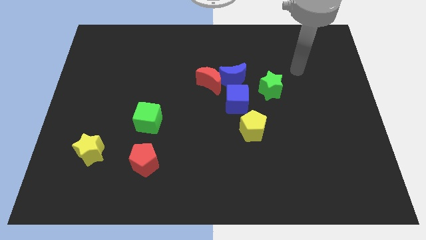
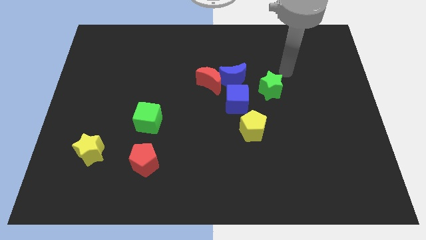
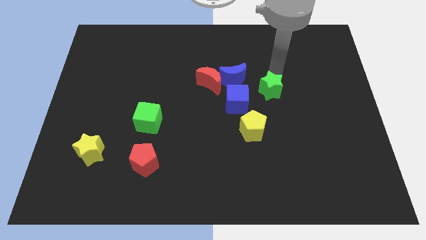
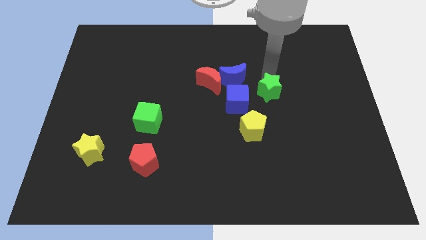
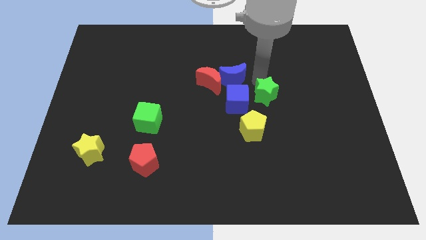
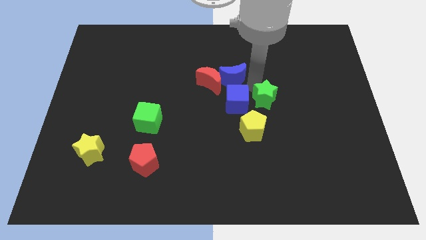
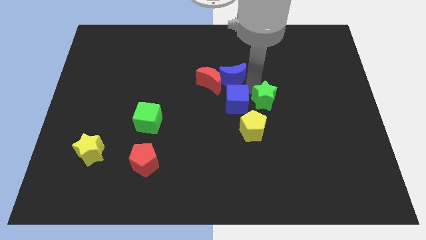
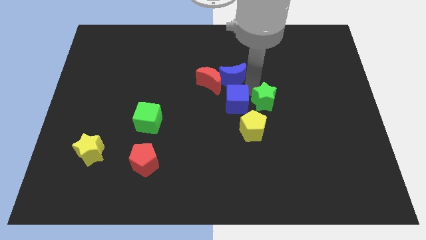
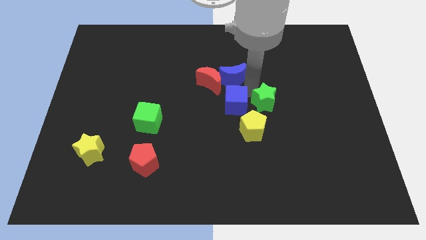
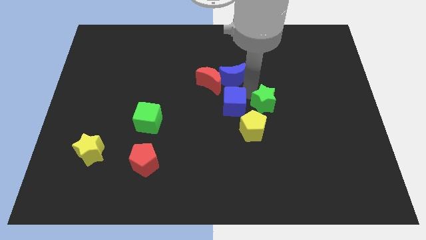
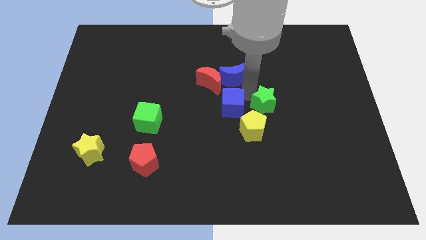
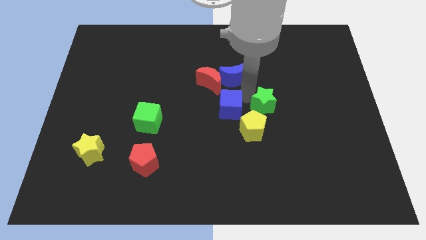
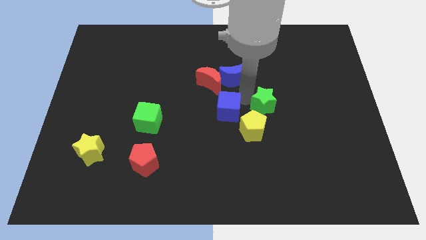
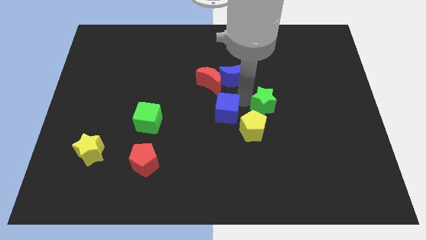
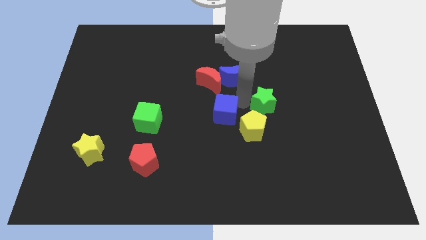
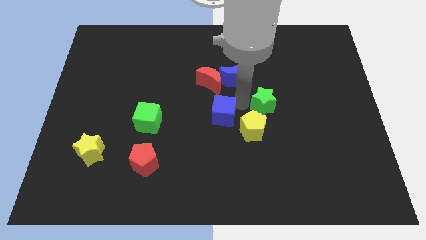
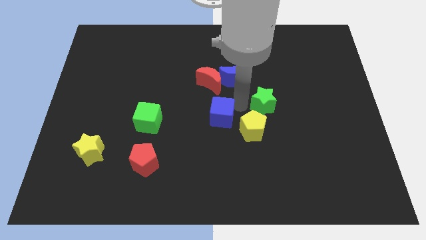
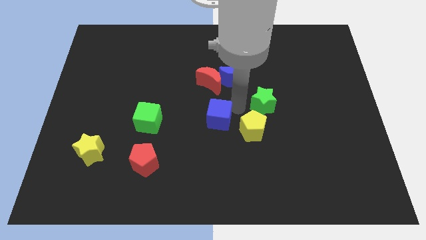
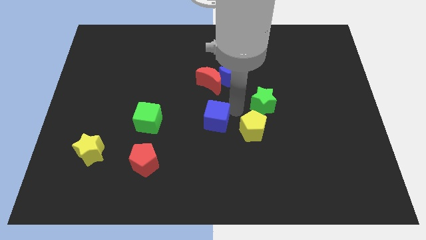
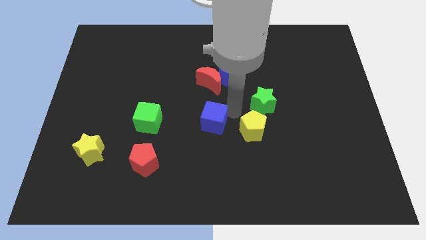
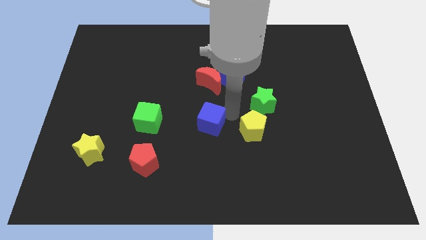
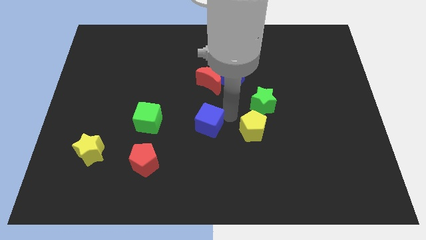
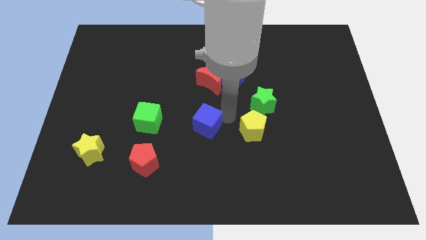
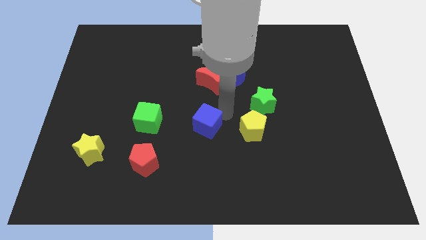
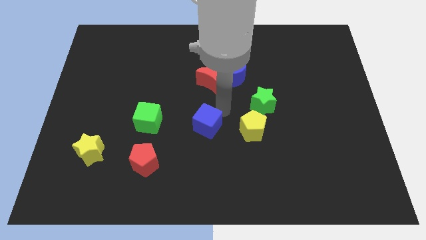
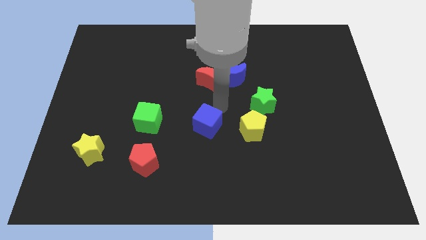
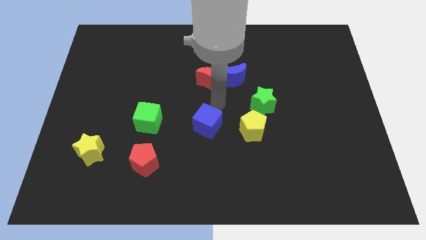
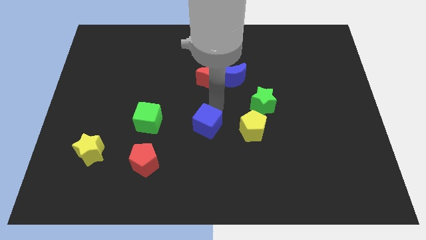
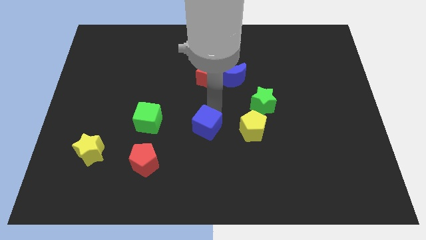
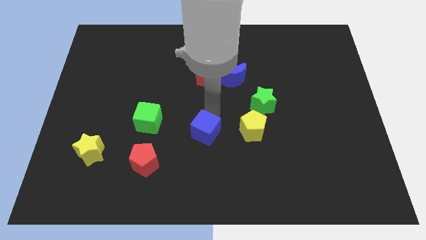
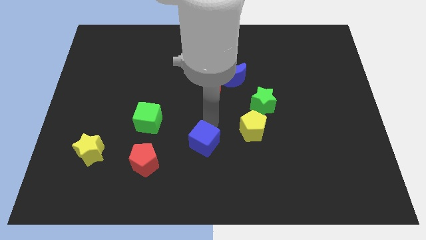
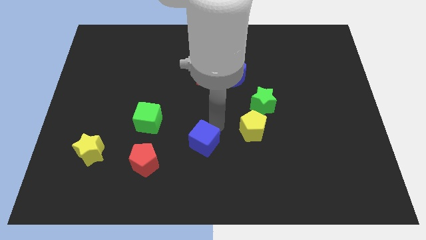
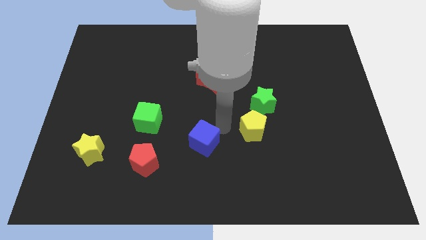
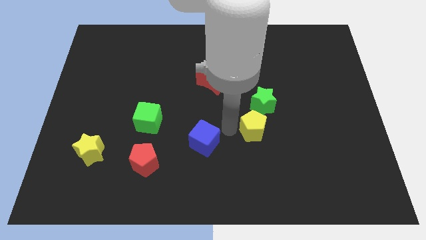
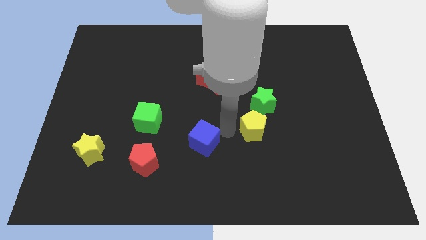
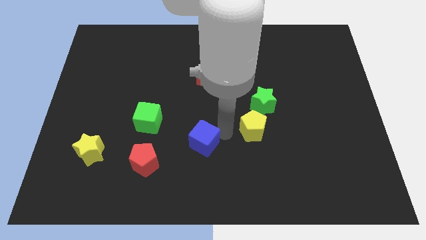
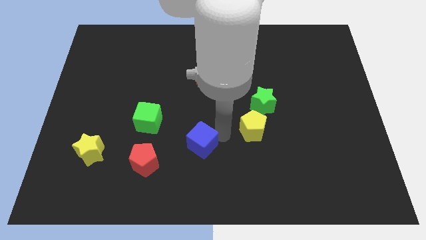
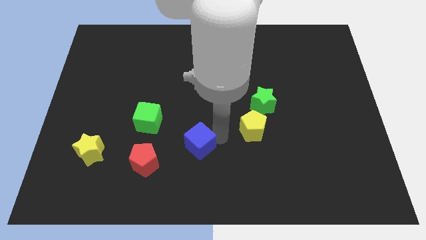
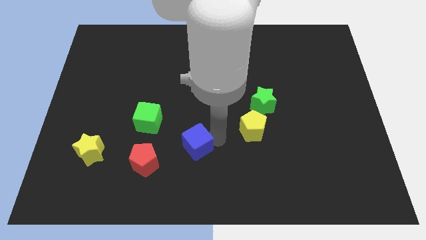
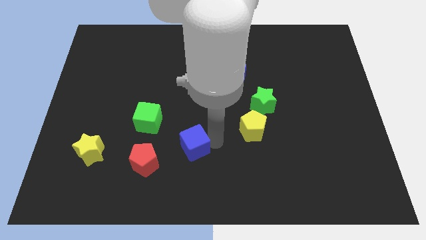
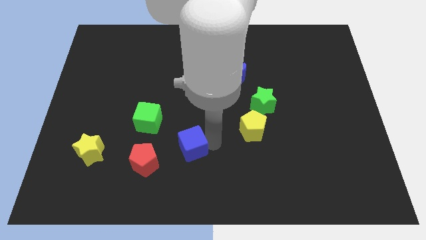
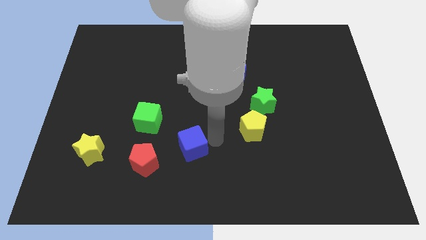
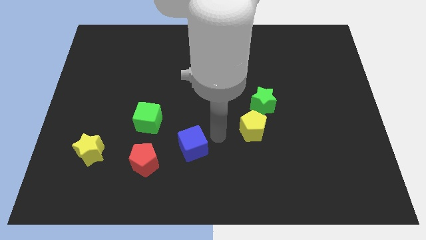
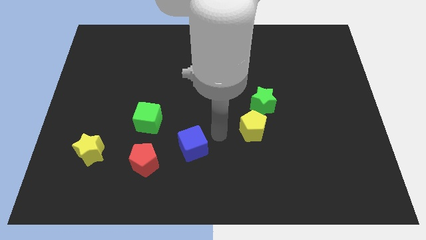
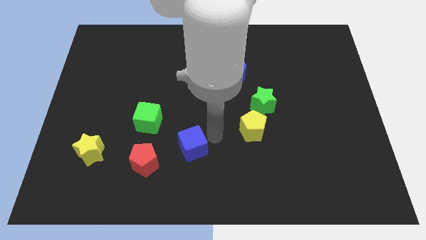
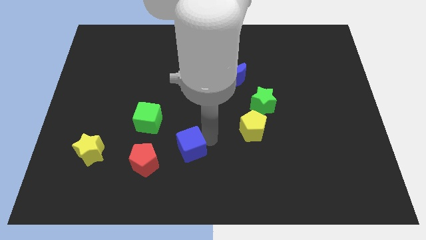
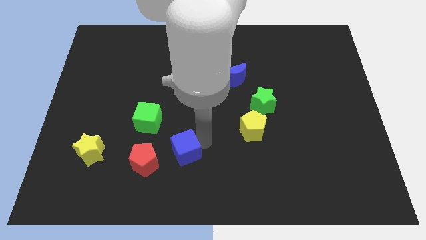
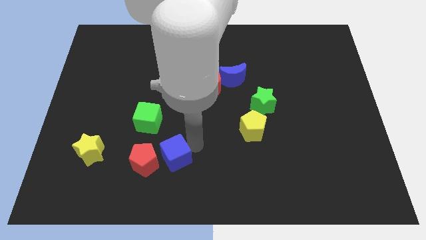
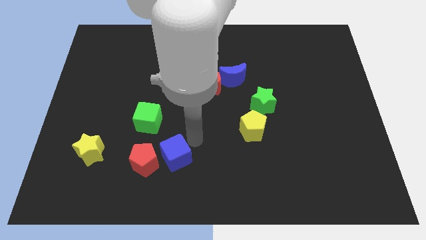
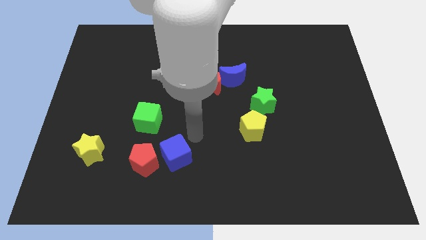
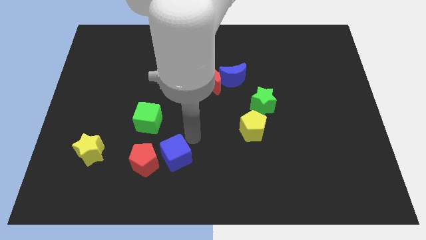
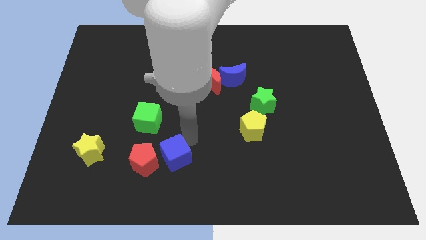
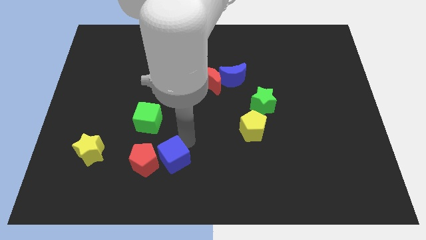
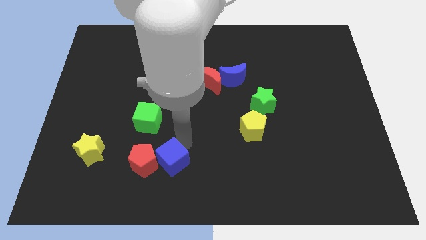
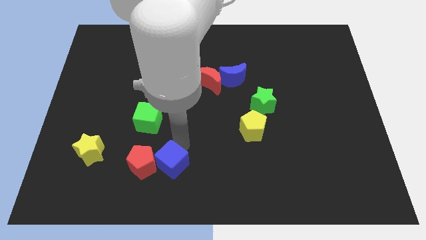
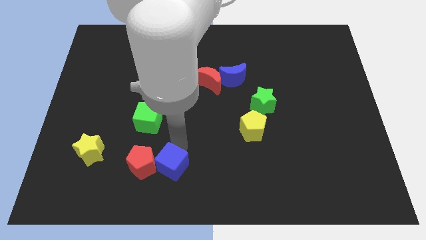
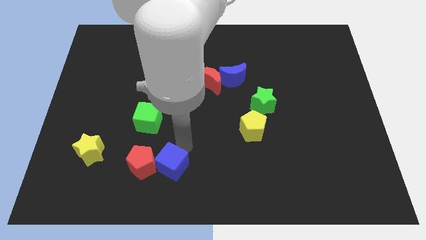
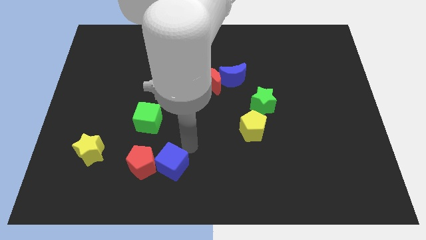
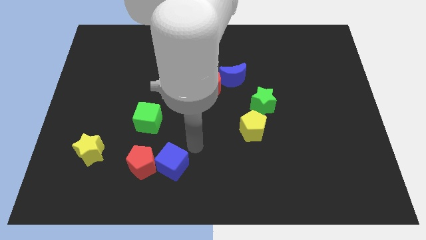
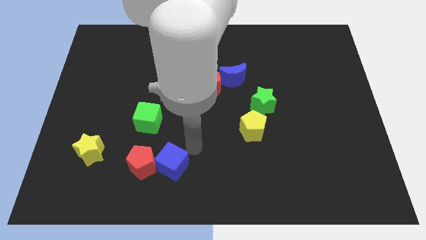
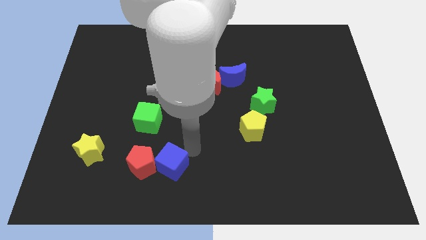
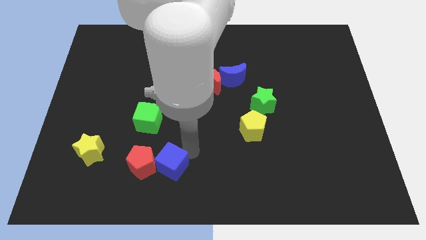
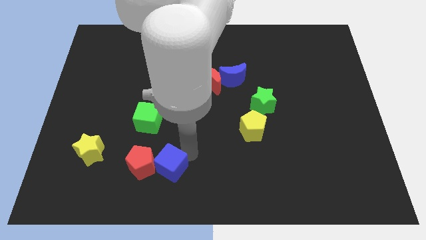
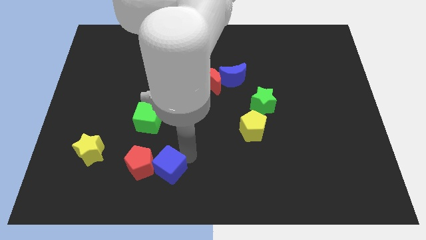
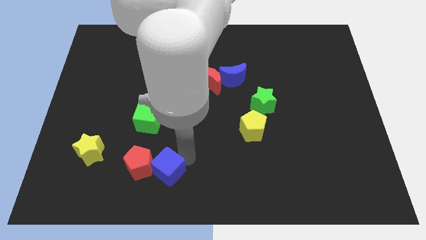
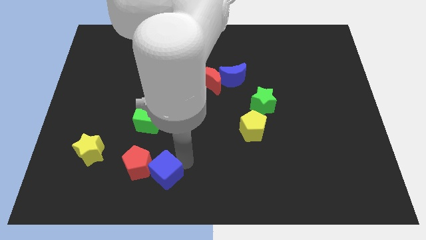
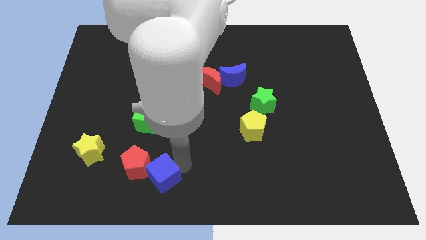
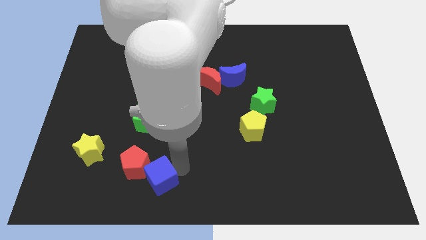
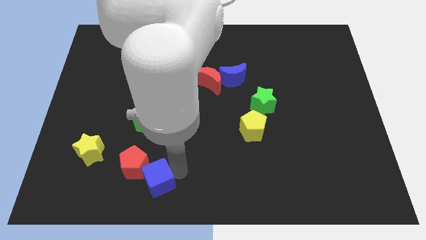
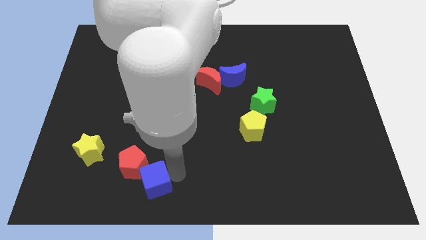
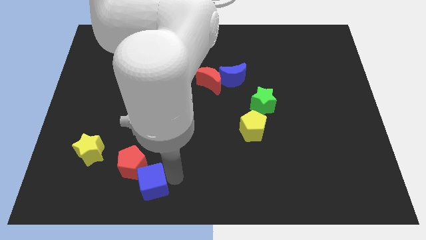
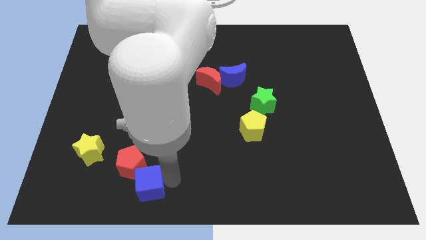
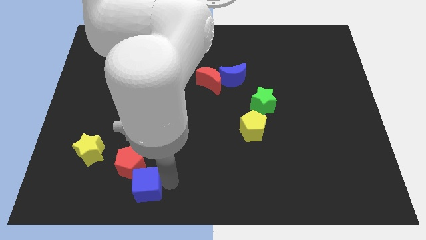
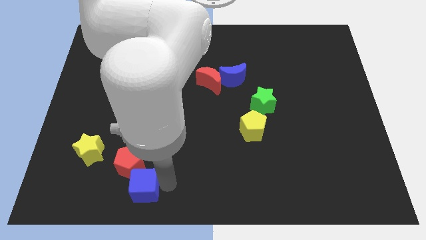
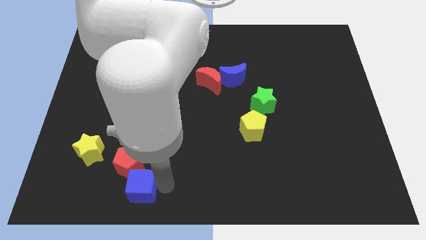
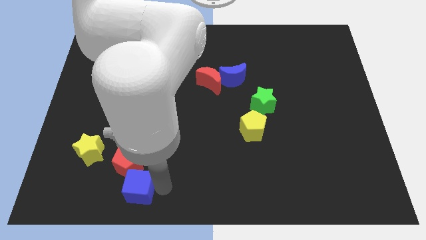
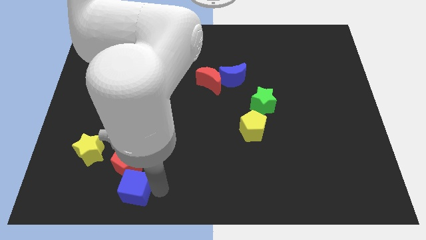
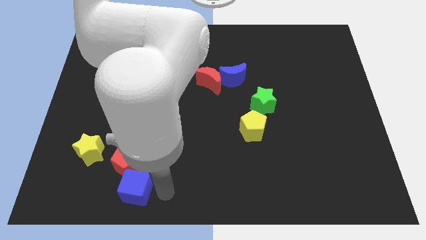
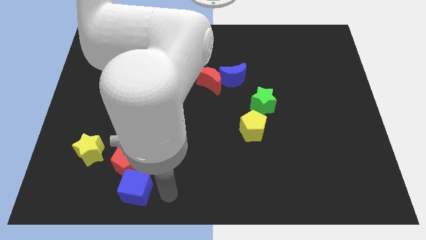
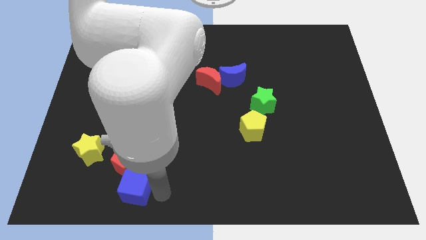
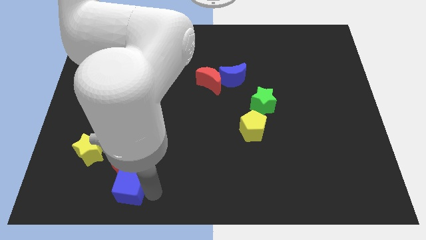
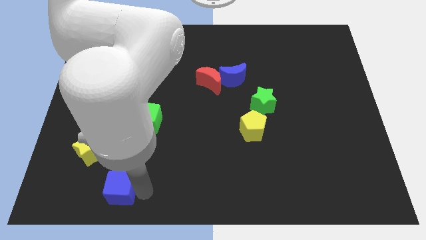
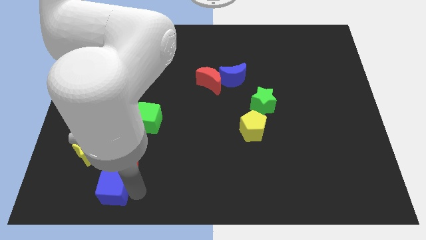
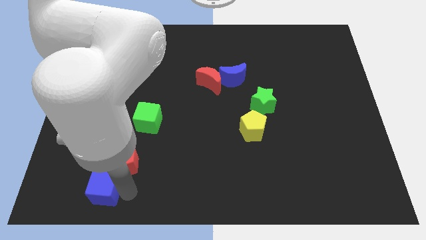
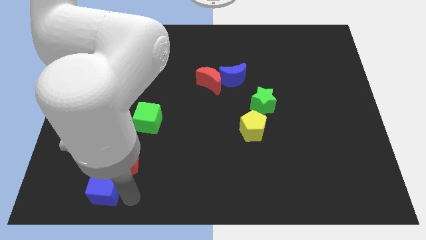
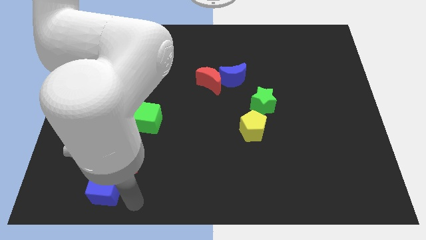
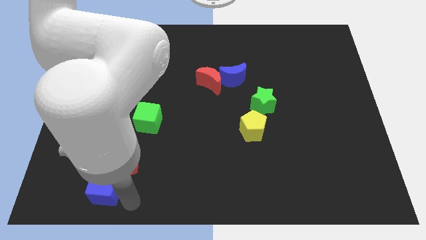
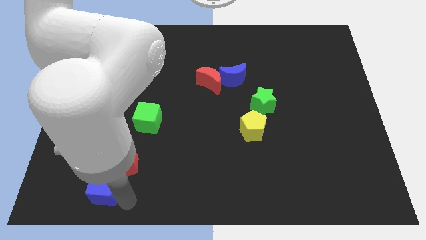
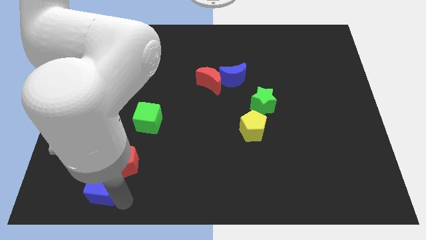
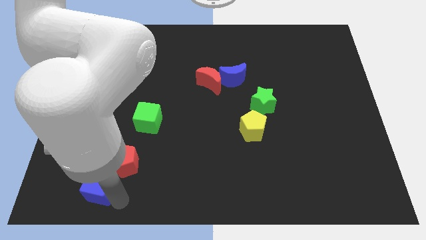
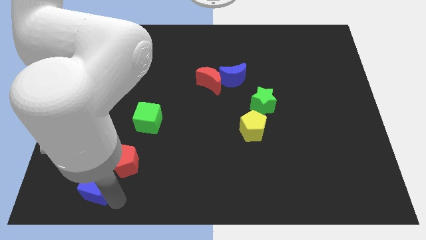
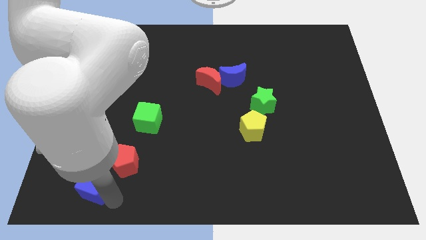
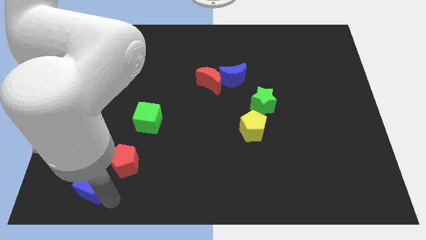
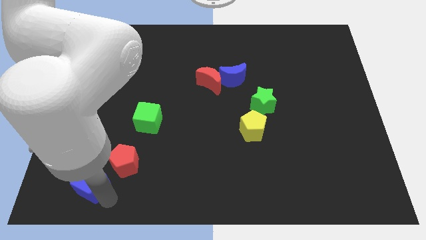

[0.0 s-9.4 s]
put the blue cube to the left of the red pentagon
